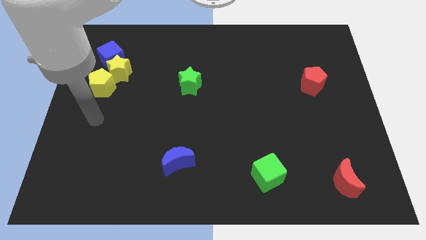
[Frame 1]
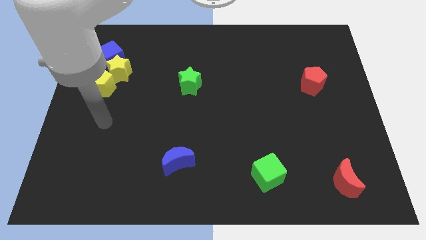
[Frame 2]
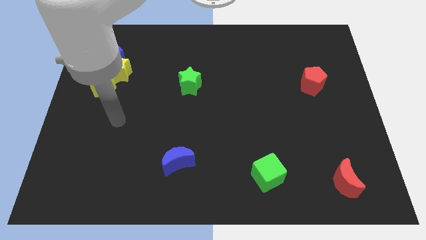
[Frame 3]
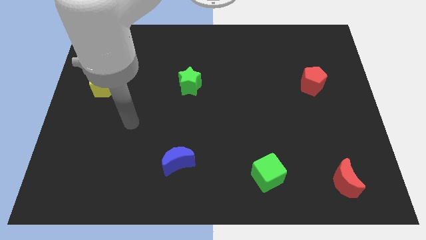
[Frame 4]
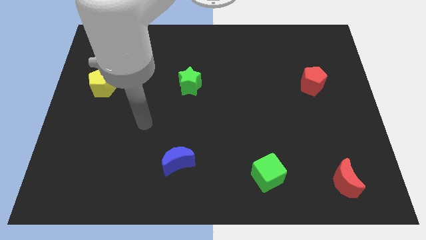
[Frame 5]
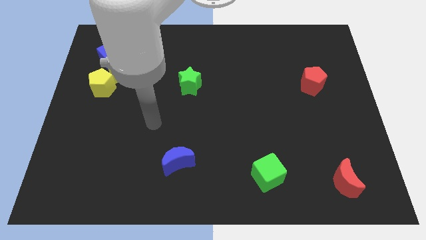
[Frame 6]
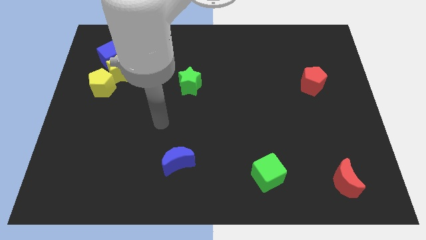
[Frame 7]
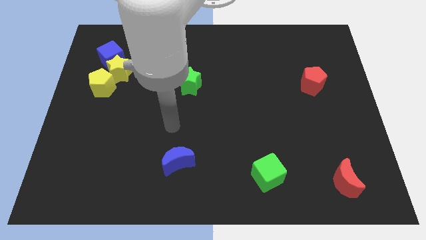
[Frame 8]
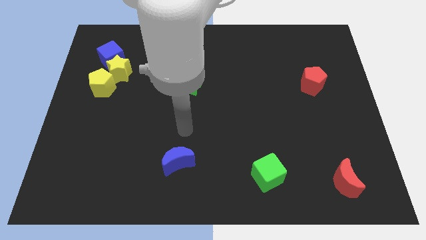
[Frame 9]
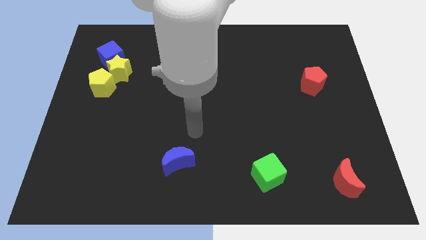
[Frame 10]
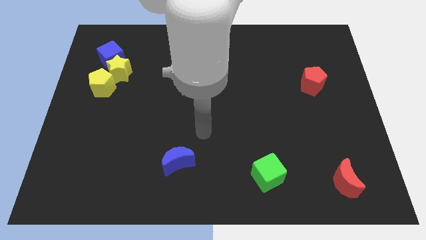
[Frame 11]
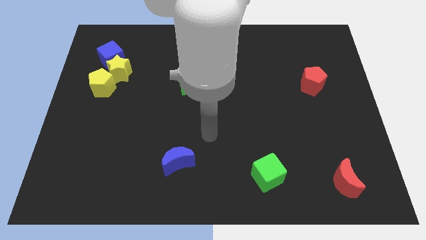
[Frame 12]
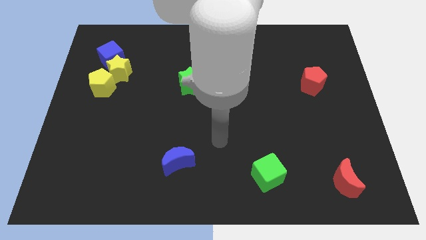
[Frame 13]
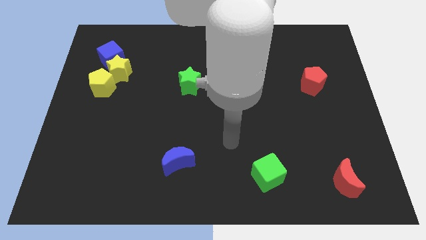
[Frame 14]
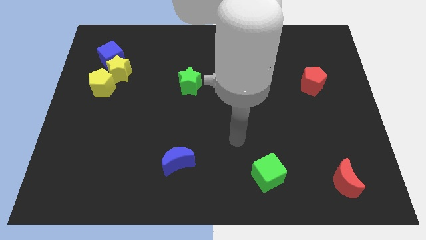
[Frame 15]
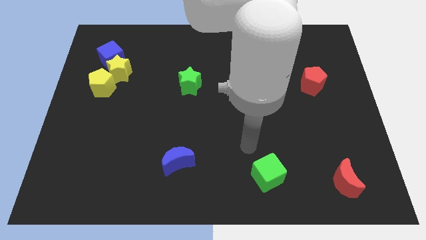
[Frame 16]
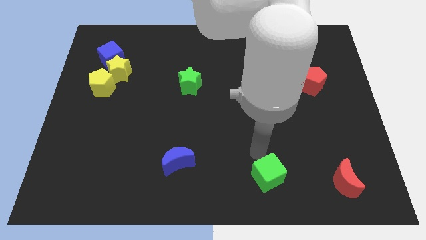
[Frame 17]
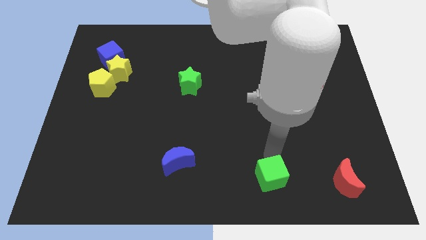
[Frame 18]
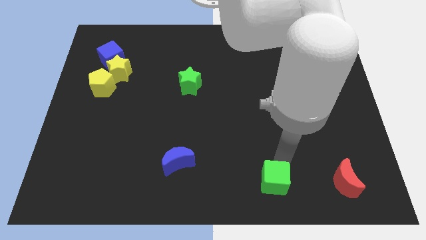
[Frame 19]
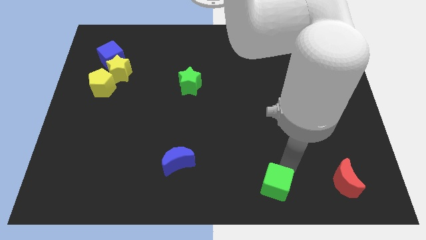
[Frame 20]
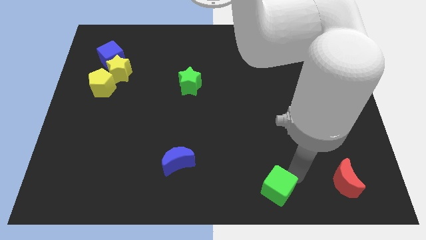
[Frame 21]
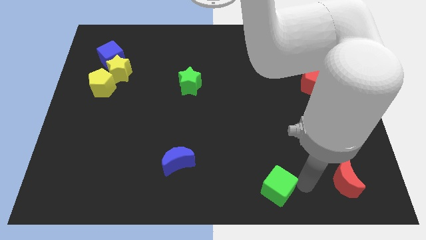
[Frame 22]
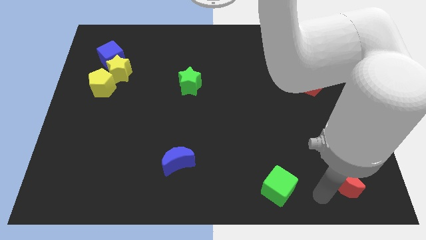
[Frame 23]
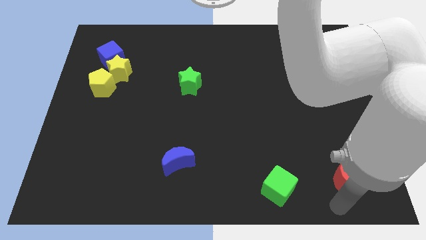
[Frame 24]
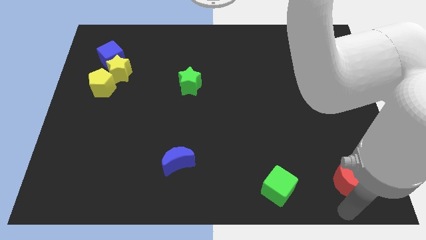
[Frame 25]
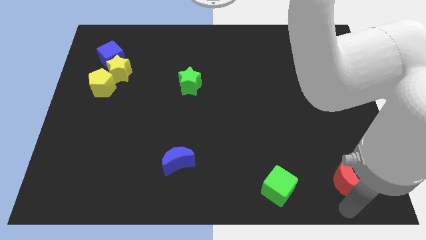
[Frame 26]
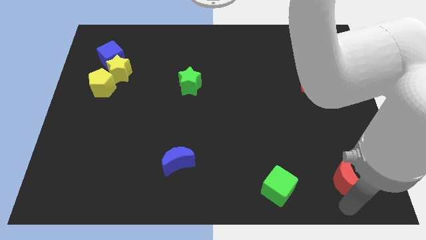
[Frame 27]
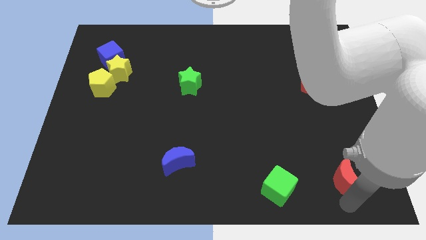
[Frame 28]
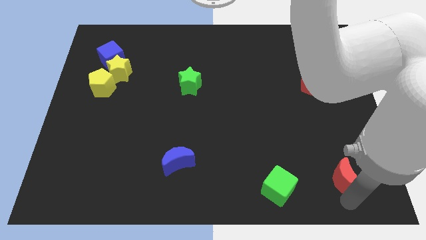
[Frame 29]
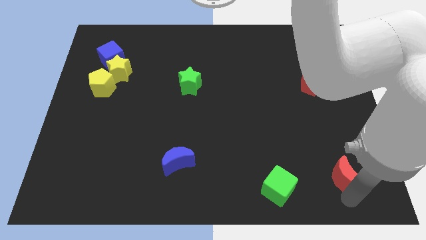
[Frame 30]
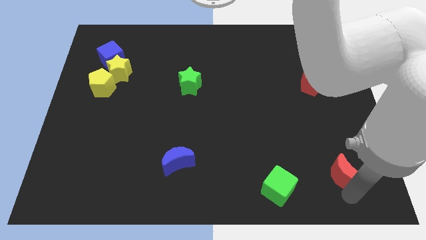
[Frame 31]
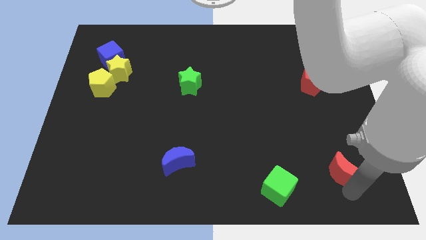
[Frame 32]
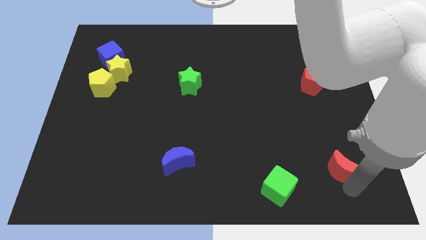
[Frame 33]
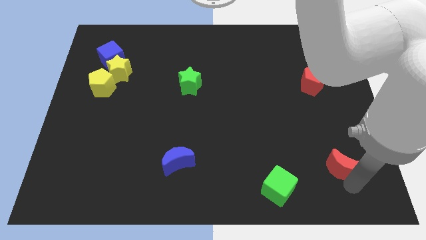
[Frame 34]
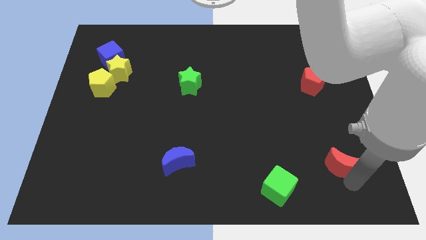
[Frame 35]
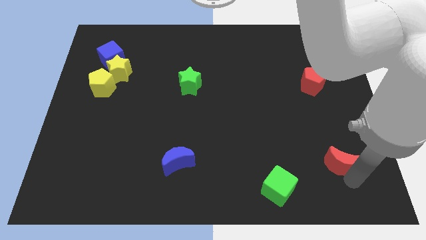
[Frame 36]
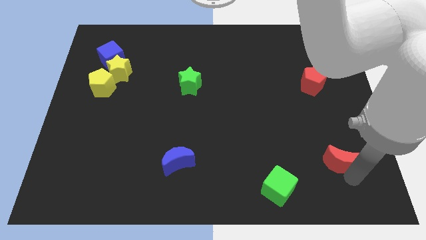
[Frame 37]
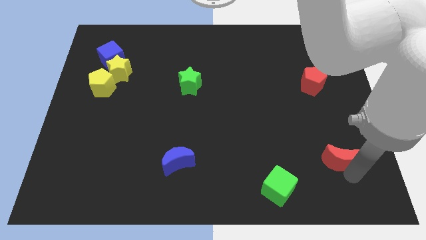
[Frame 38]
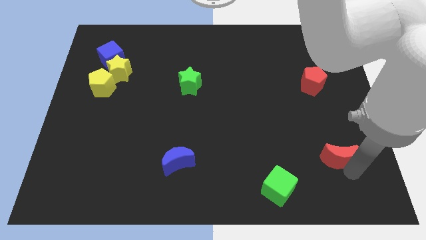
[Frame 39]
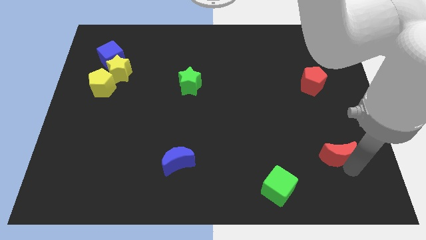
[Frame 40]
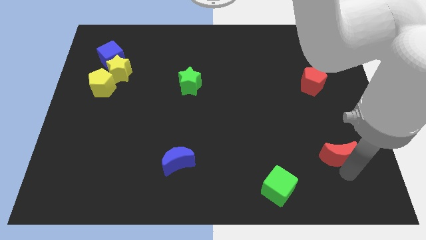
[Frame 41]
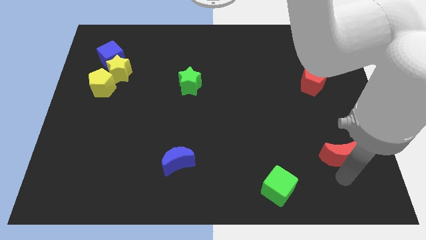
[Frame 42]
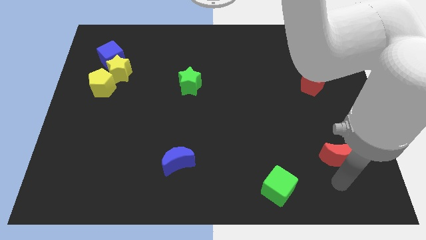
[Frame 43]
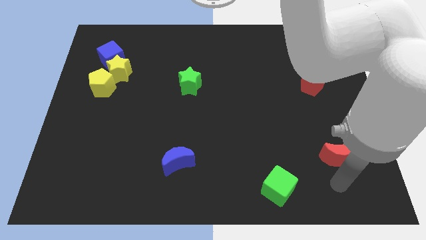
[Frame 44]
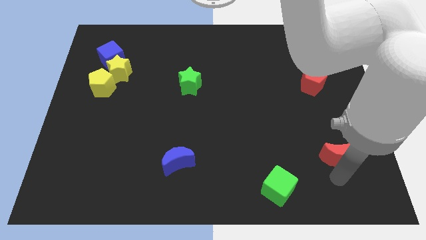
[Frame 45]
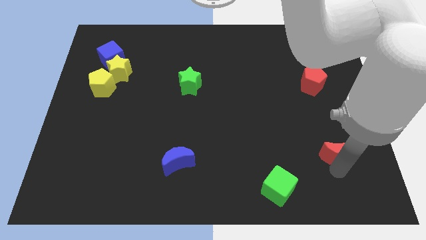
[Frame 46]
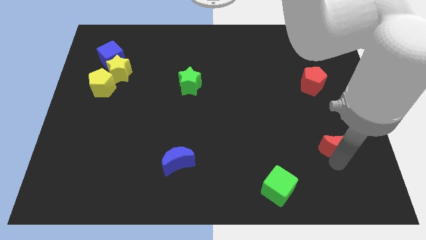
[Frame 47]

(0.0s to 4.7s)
move the red moon a bit upwards

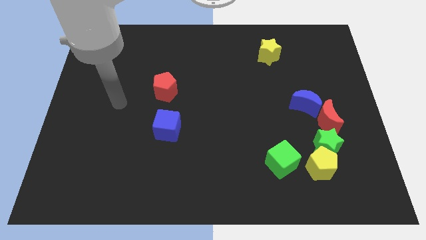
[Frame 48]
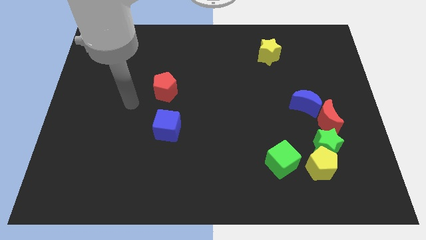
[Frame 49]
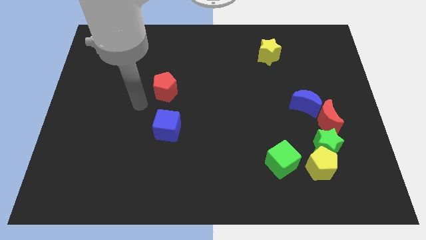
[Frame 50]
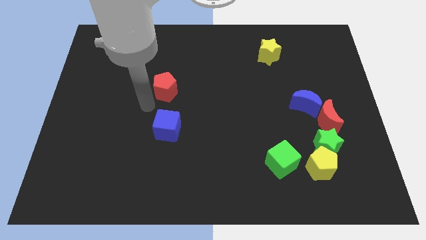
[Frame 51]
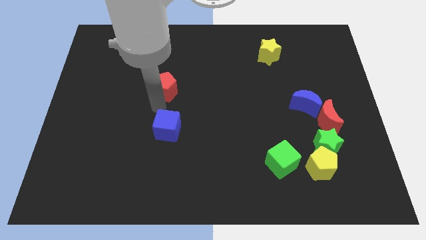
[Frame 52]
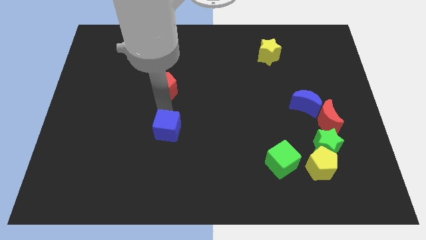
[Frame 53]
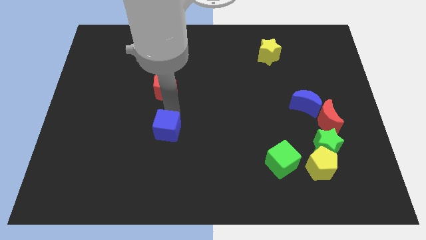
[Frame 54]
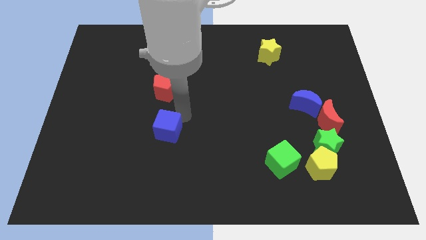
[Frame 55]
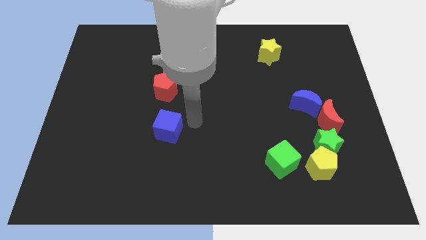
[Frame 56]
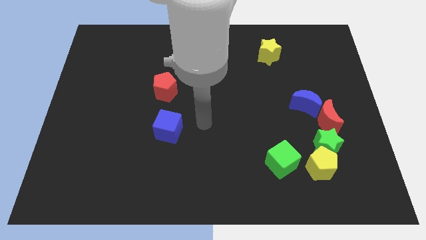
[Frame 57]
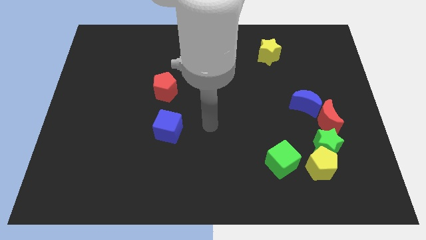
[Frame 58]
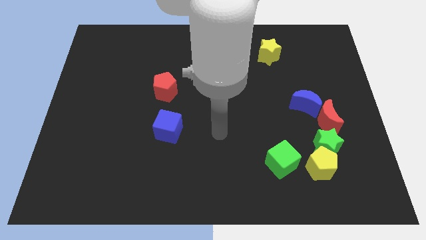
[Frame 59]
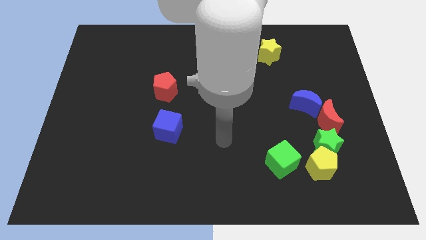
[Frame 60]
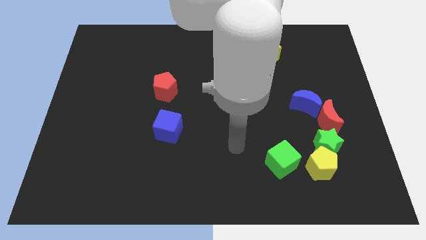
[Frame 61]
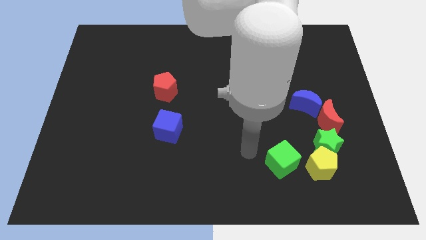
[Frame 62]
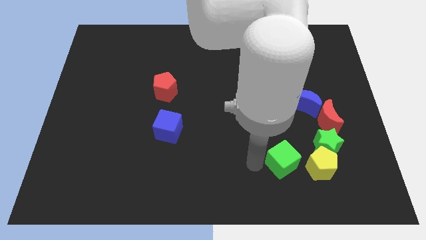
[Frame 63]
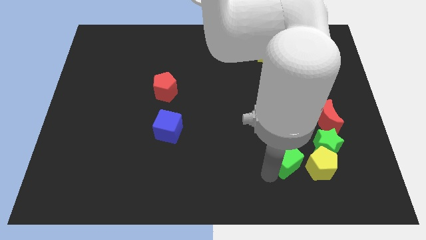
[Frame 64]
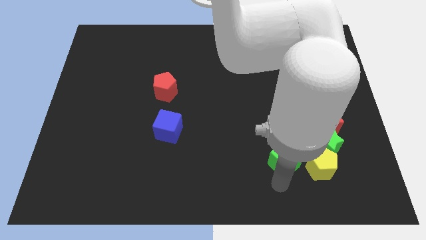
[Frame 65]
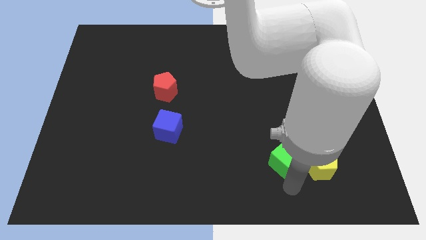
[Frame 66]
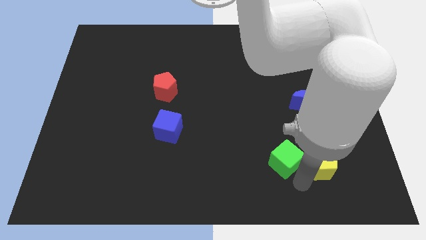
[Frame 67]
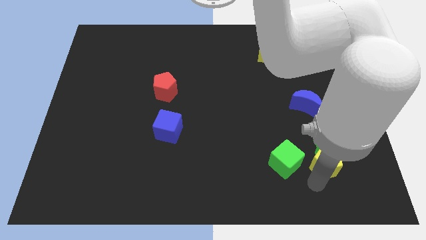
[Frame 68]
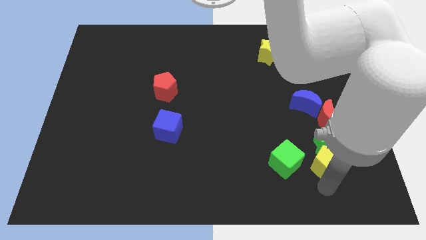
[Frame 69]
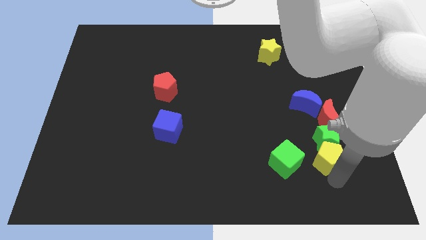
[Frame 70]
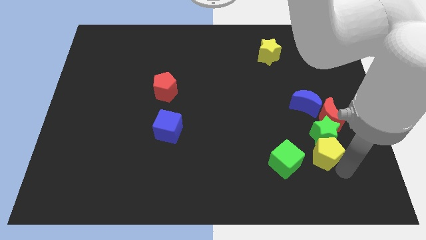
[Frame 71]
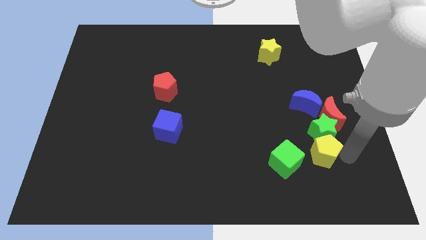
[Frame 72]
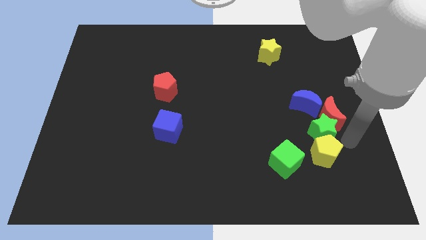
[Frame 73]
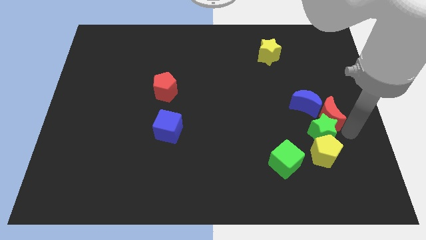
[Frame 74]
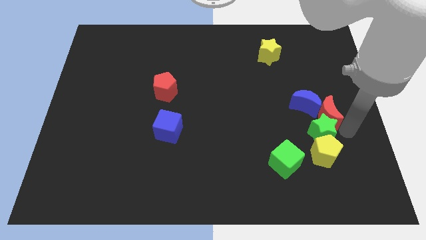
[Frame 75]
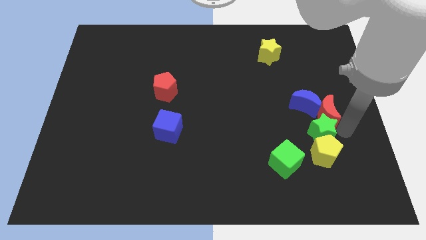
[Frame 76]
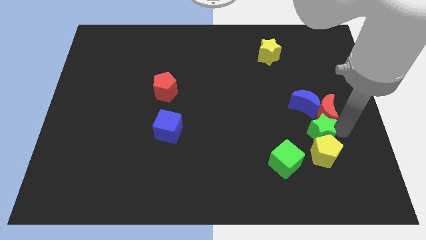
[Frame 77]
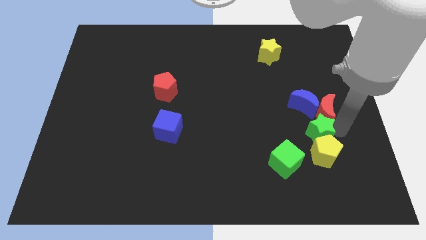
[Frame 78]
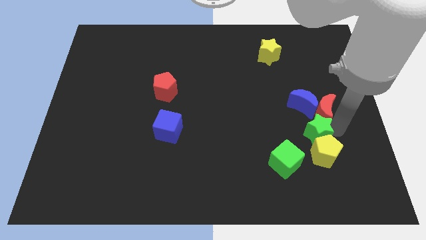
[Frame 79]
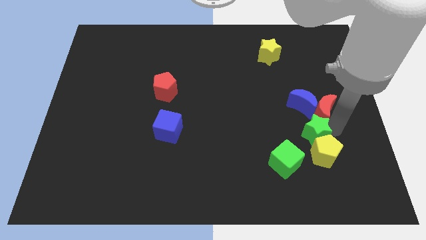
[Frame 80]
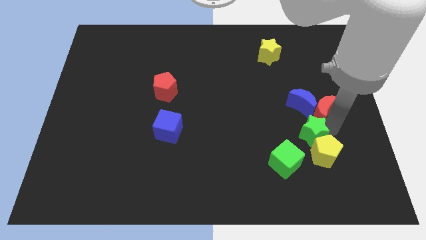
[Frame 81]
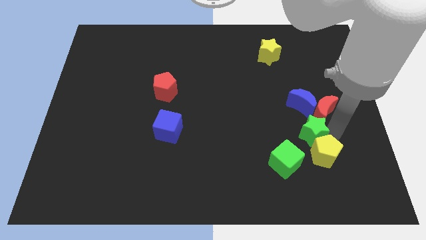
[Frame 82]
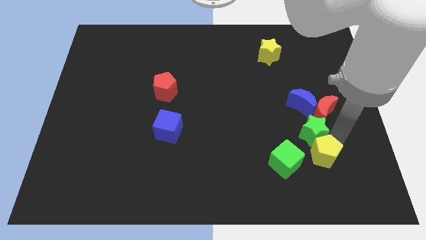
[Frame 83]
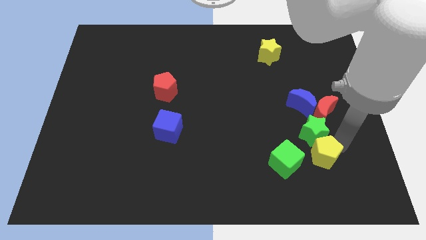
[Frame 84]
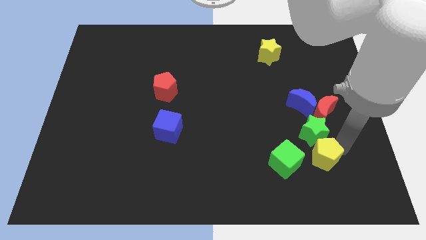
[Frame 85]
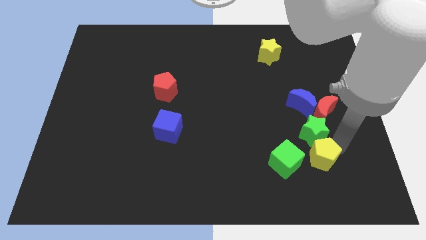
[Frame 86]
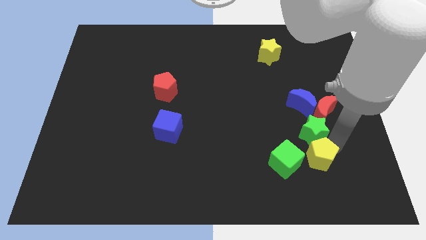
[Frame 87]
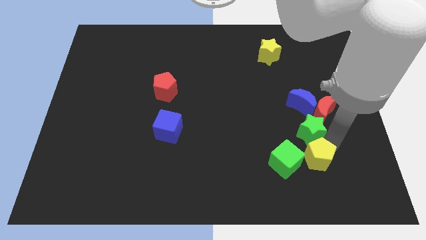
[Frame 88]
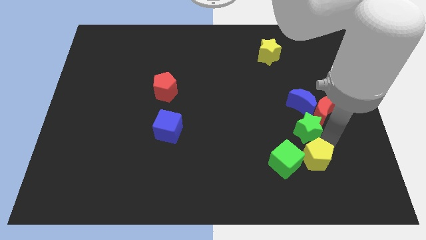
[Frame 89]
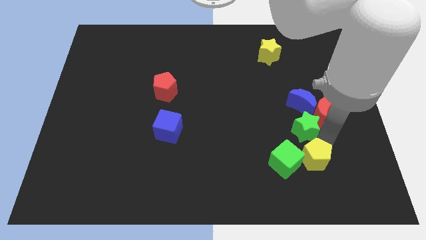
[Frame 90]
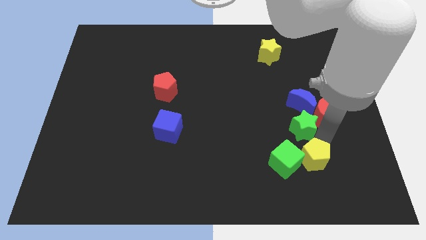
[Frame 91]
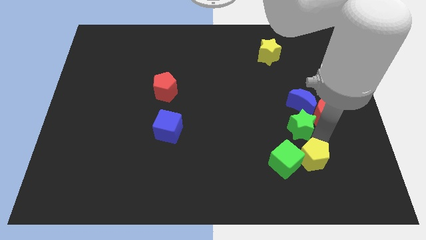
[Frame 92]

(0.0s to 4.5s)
slightly push the green star upwards and then left
